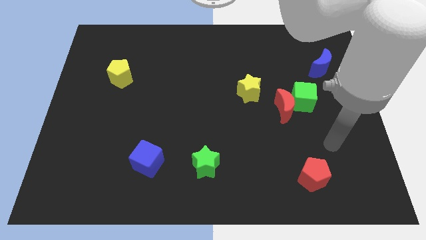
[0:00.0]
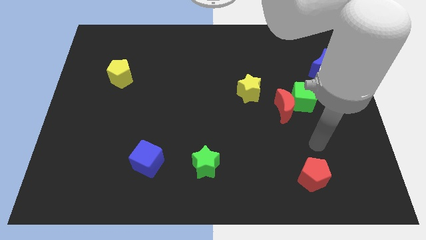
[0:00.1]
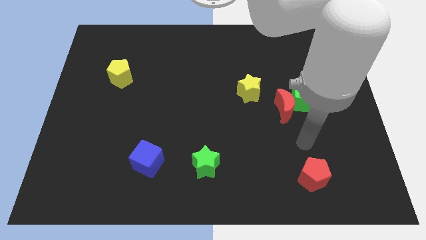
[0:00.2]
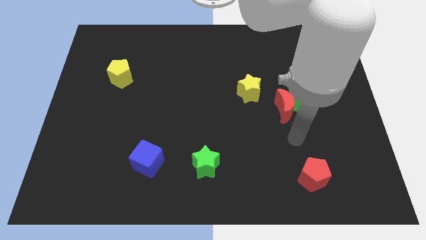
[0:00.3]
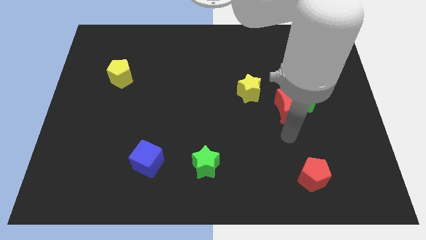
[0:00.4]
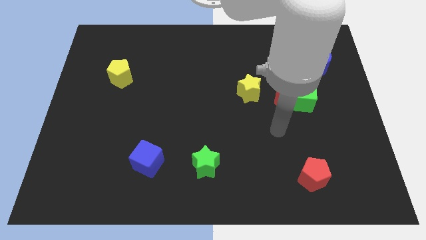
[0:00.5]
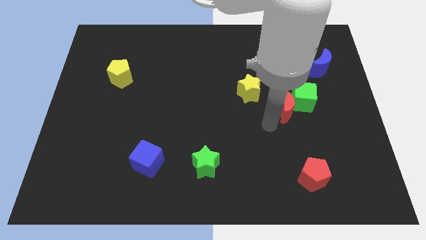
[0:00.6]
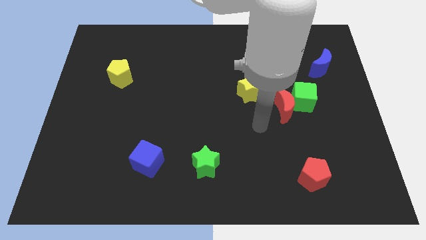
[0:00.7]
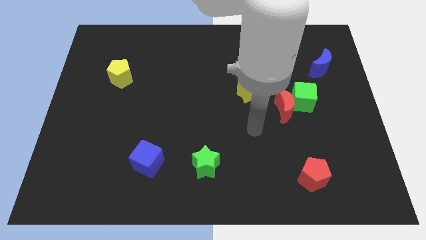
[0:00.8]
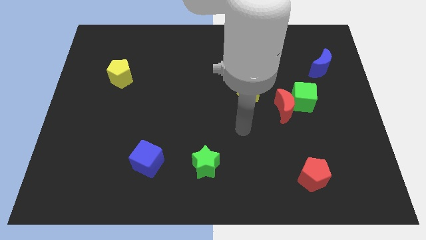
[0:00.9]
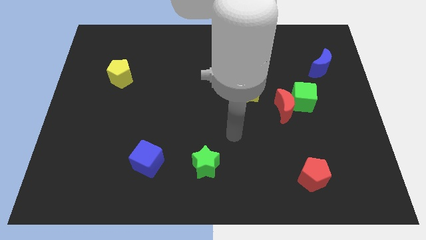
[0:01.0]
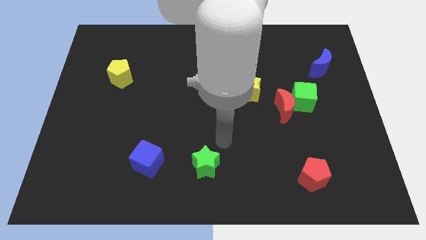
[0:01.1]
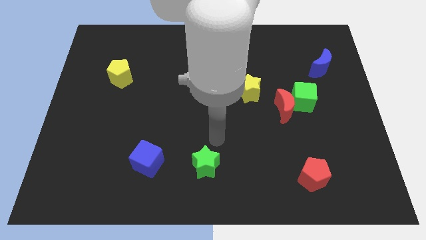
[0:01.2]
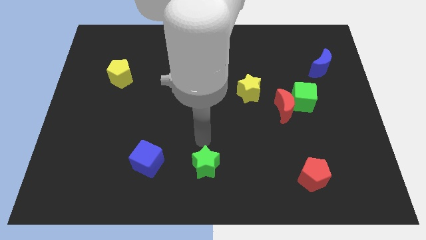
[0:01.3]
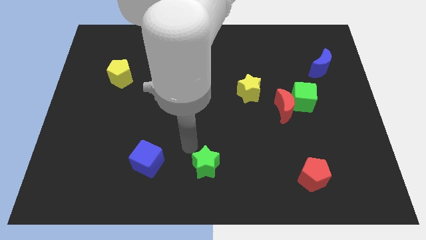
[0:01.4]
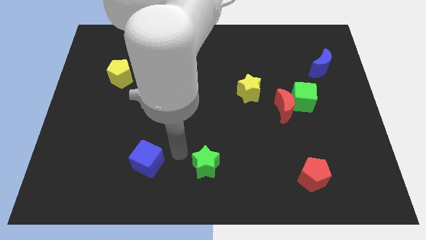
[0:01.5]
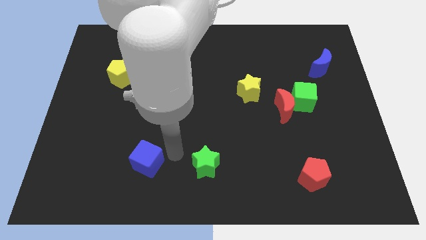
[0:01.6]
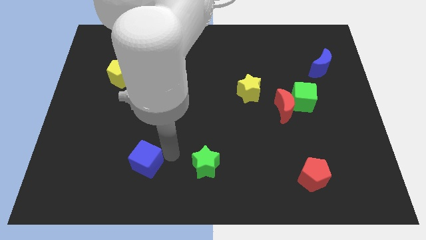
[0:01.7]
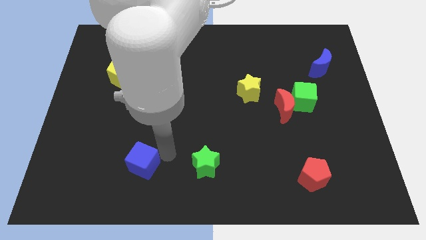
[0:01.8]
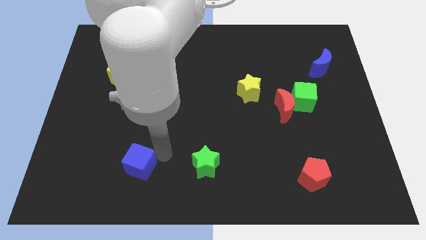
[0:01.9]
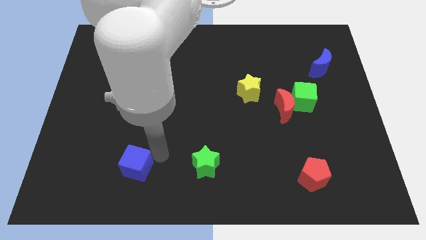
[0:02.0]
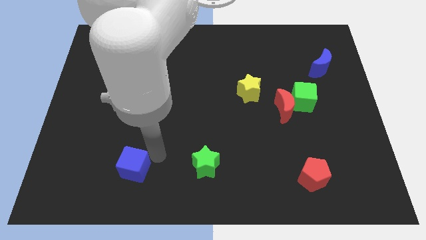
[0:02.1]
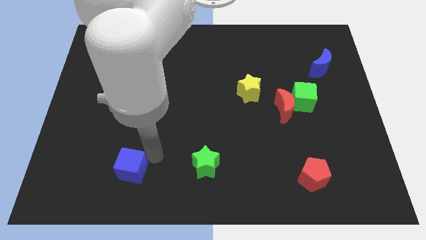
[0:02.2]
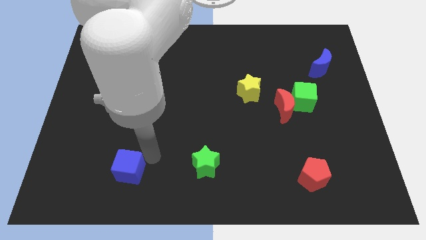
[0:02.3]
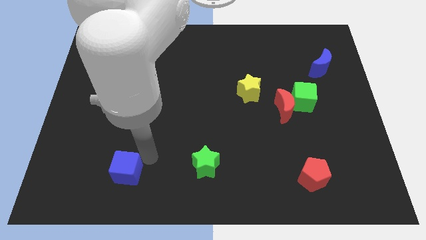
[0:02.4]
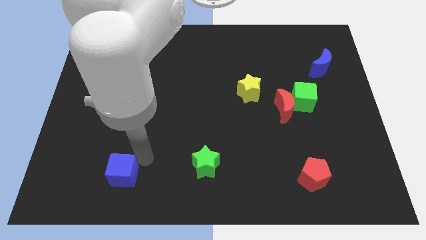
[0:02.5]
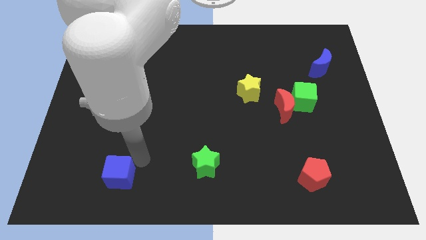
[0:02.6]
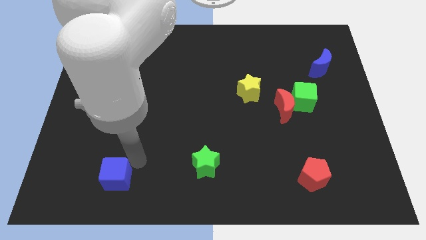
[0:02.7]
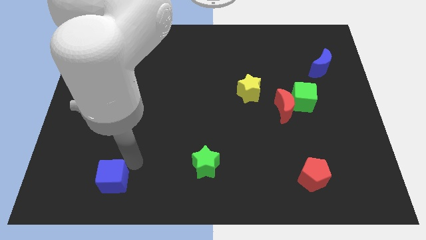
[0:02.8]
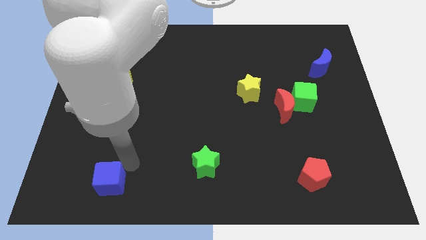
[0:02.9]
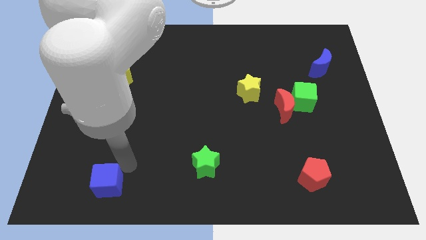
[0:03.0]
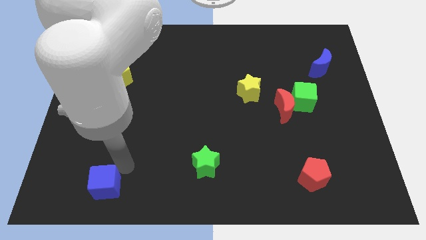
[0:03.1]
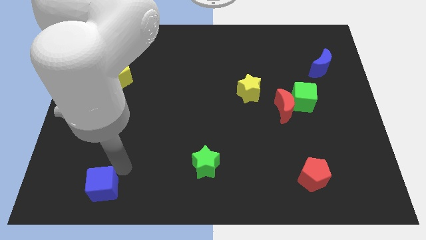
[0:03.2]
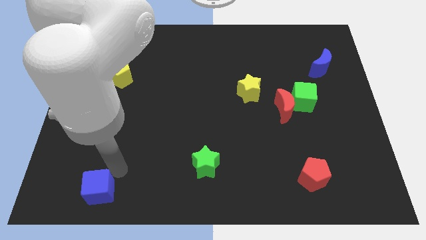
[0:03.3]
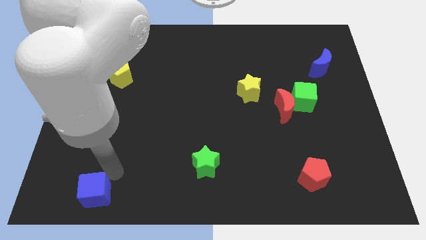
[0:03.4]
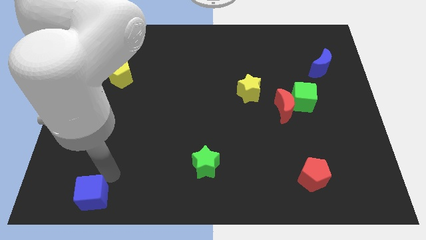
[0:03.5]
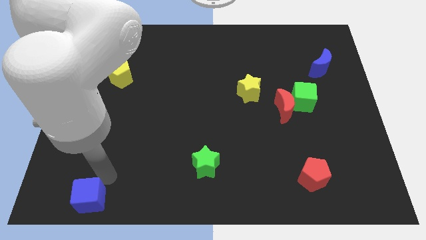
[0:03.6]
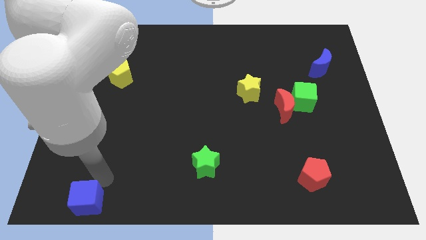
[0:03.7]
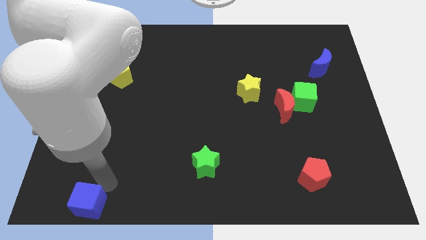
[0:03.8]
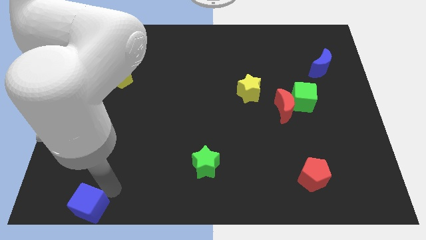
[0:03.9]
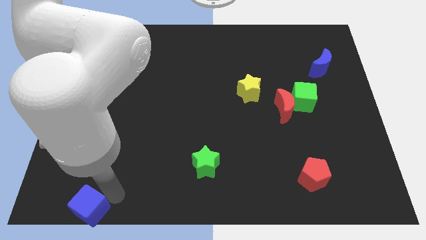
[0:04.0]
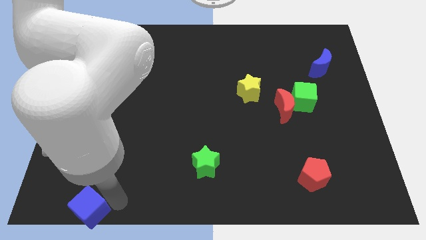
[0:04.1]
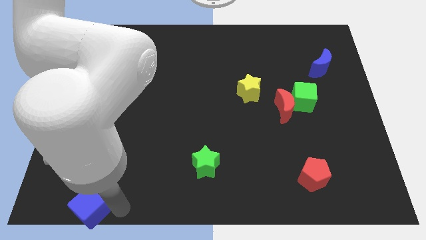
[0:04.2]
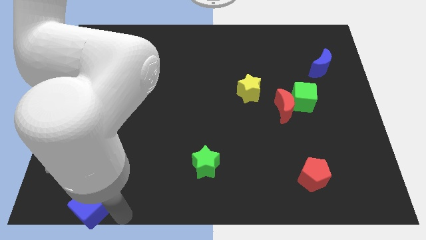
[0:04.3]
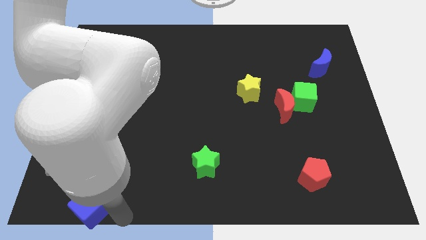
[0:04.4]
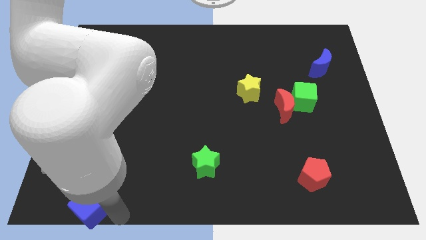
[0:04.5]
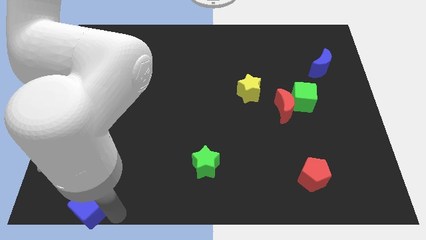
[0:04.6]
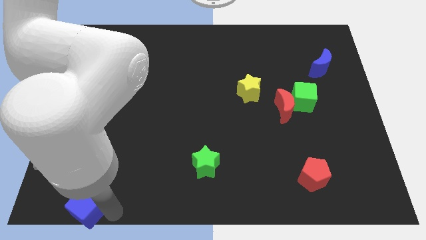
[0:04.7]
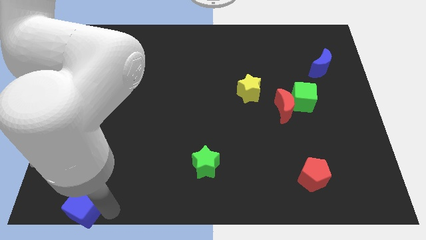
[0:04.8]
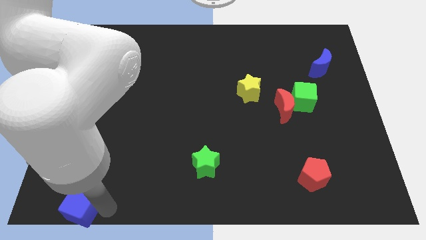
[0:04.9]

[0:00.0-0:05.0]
push the blue cube to the lower left corner

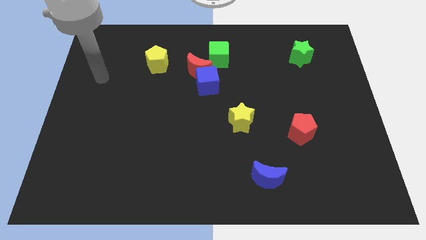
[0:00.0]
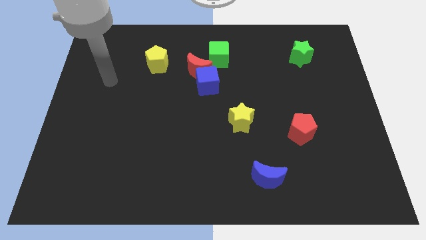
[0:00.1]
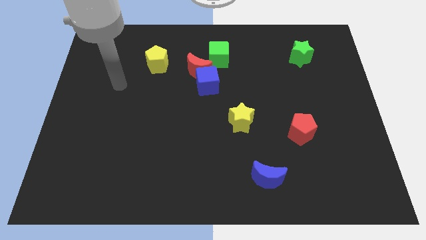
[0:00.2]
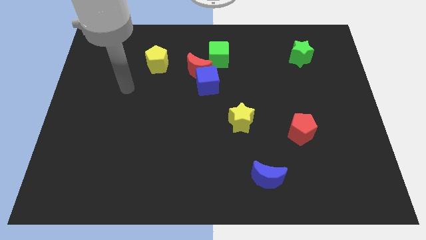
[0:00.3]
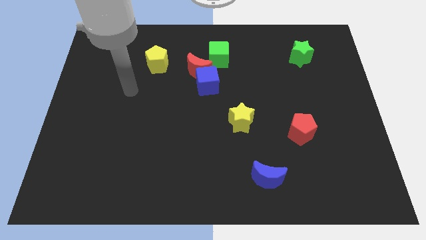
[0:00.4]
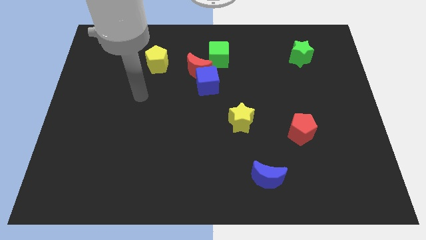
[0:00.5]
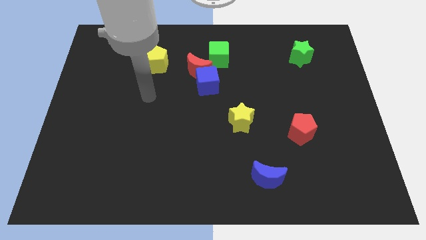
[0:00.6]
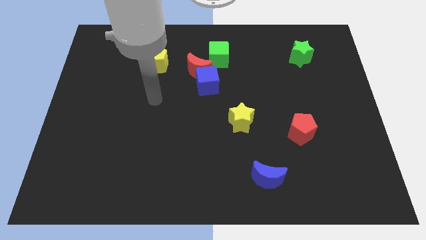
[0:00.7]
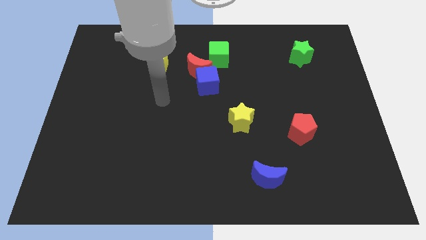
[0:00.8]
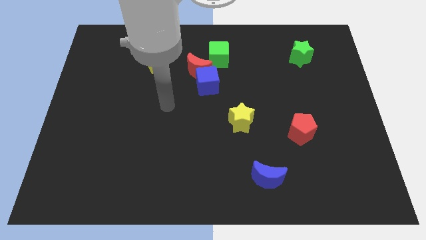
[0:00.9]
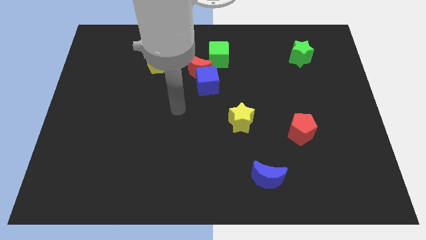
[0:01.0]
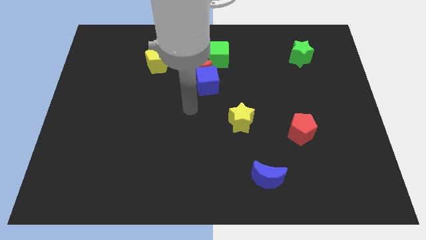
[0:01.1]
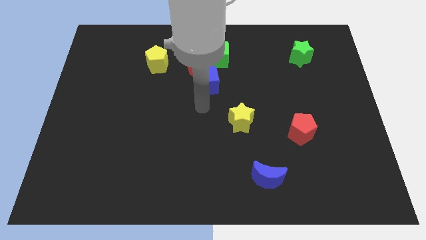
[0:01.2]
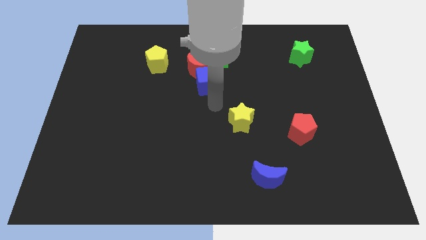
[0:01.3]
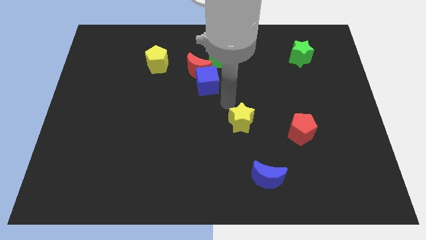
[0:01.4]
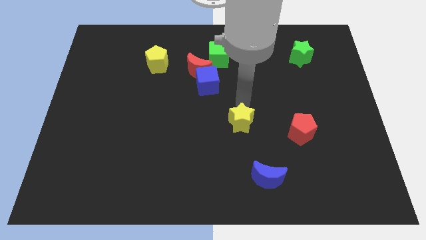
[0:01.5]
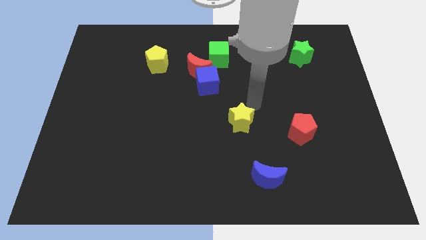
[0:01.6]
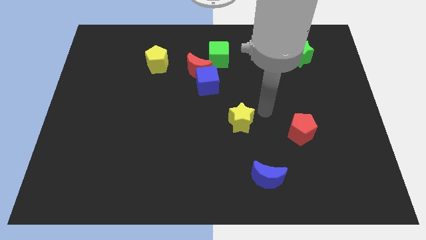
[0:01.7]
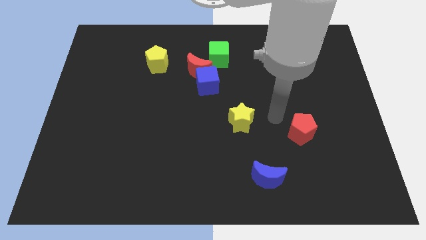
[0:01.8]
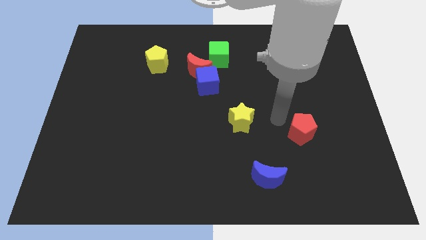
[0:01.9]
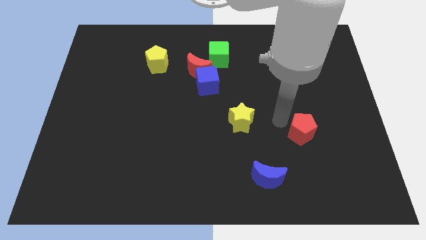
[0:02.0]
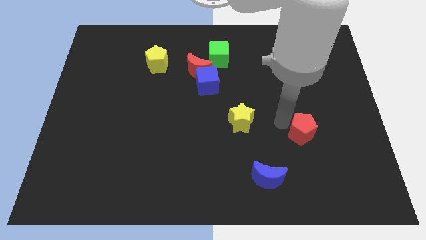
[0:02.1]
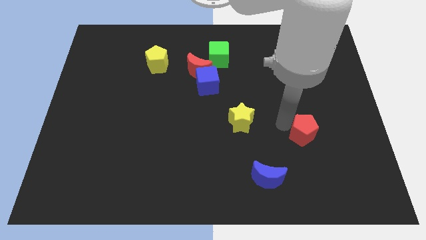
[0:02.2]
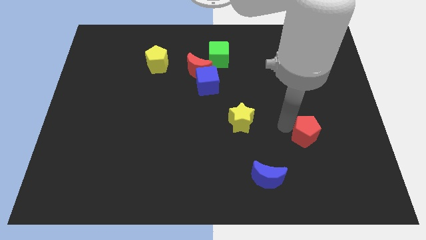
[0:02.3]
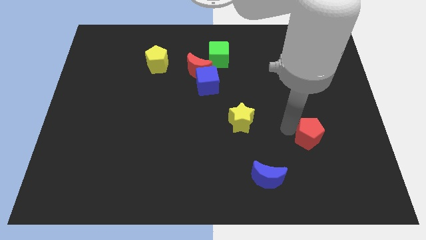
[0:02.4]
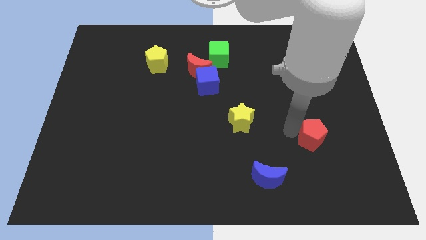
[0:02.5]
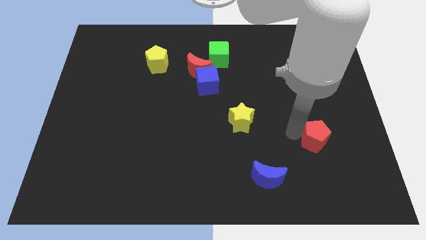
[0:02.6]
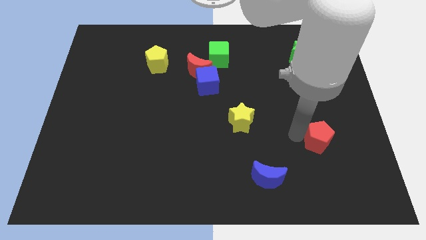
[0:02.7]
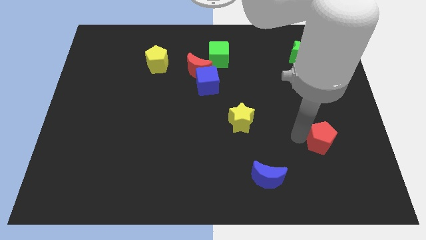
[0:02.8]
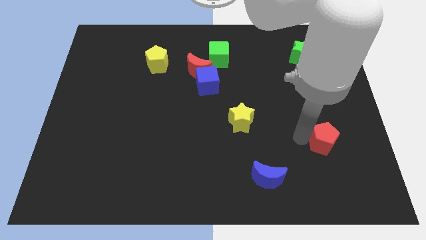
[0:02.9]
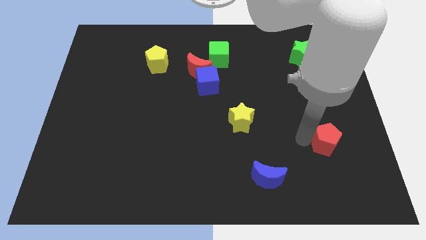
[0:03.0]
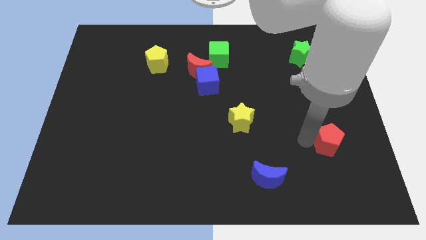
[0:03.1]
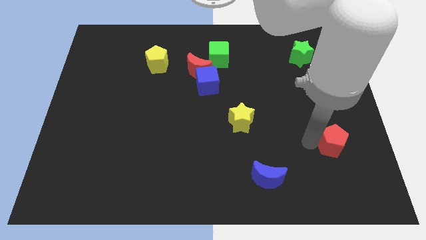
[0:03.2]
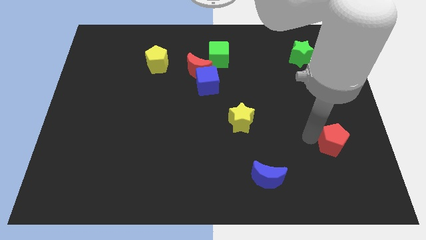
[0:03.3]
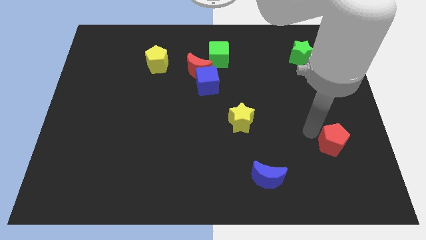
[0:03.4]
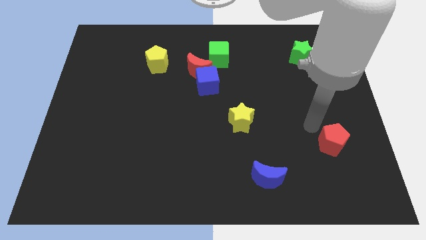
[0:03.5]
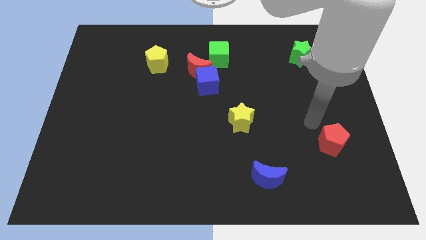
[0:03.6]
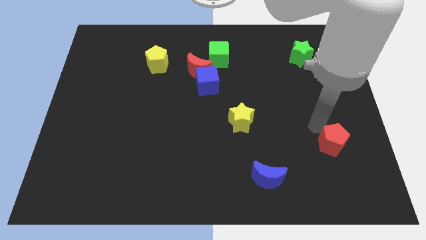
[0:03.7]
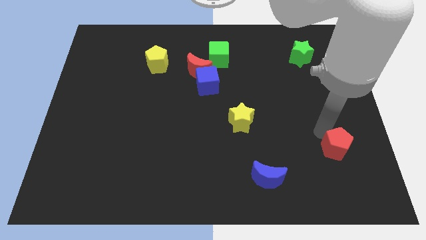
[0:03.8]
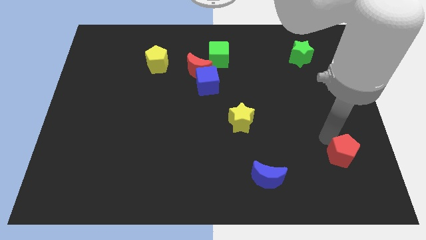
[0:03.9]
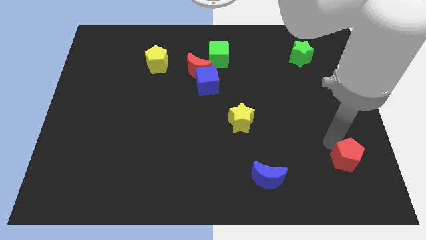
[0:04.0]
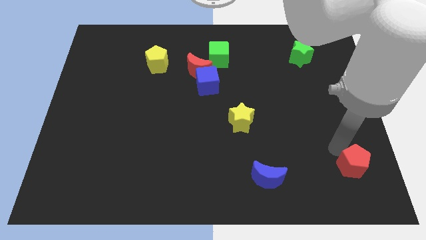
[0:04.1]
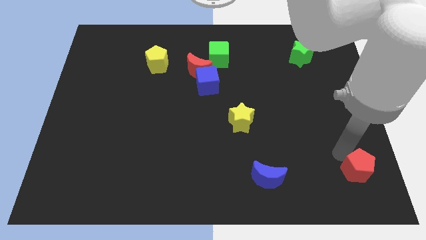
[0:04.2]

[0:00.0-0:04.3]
put the red pentagon to the bottom right
